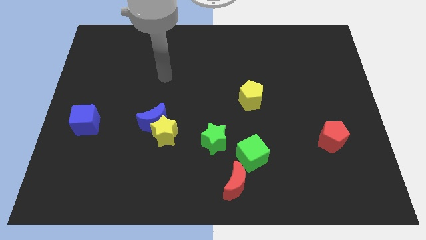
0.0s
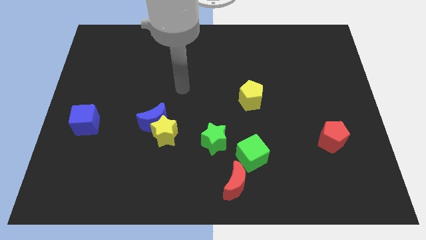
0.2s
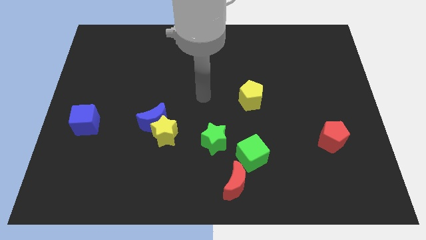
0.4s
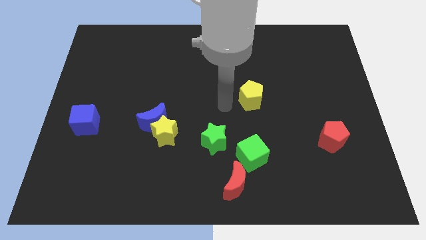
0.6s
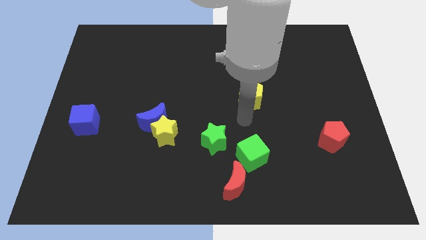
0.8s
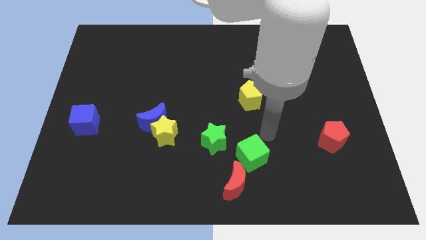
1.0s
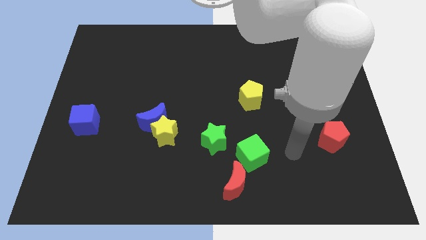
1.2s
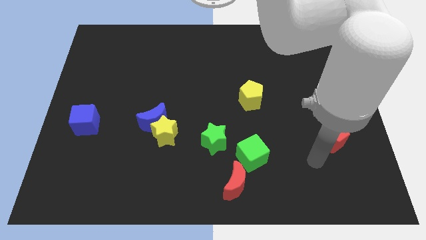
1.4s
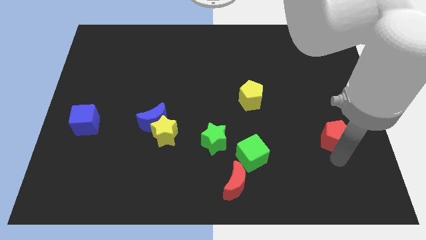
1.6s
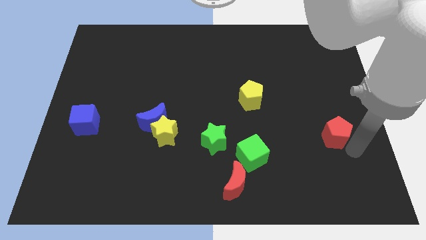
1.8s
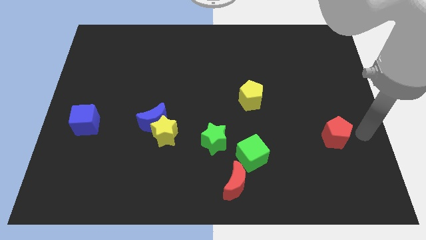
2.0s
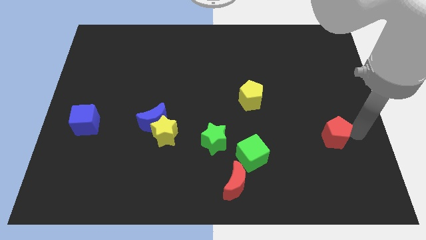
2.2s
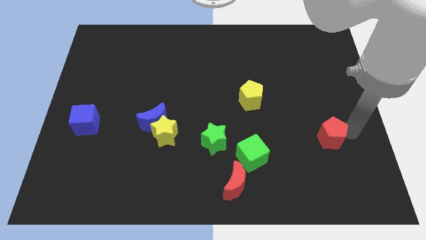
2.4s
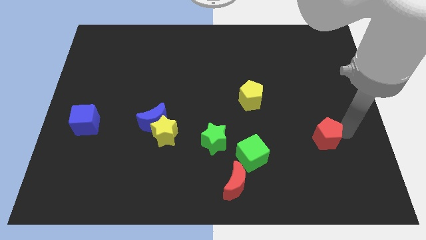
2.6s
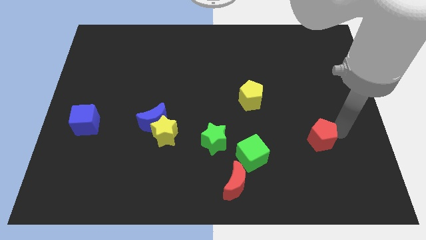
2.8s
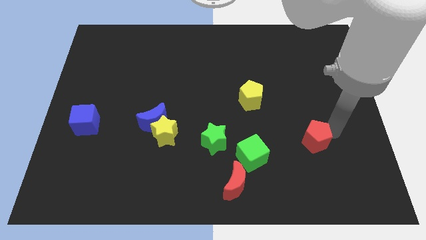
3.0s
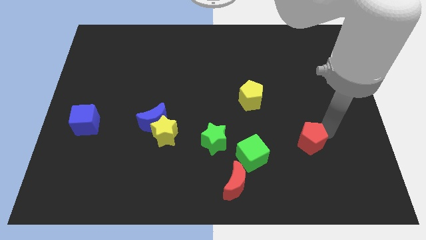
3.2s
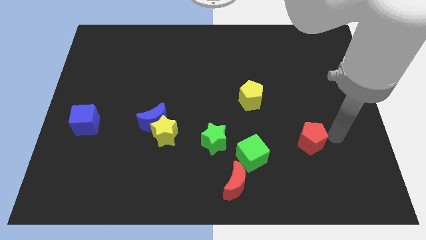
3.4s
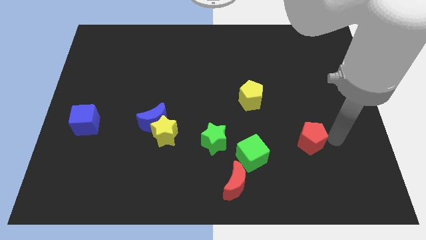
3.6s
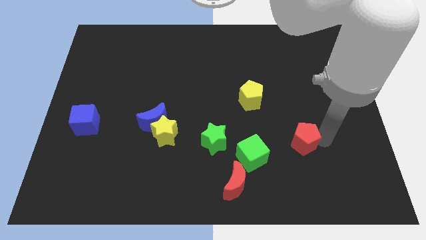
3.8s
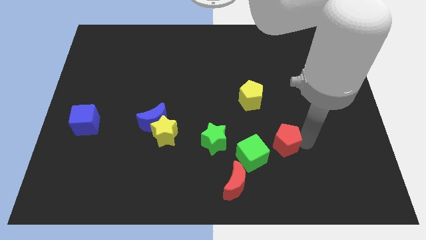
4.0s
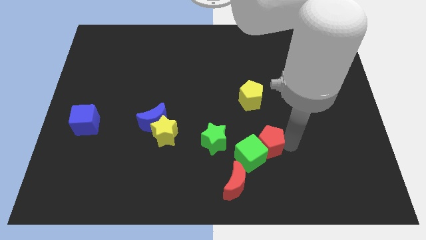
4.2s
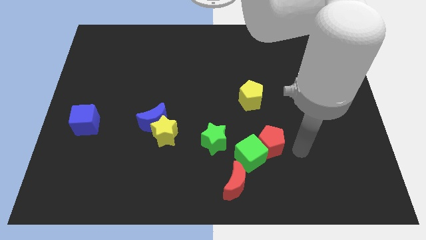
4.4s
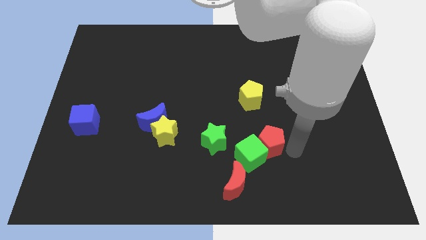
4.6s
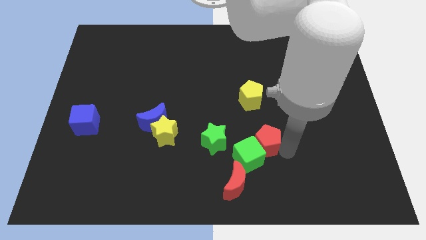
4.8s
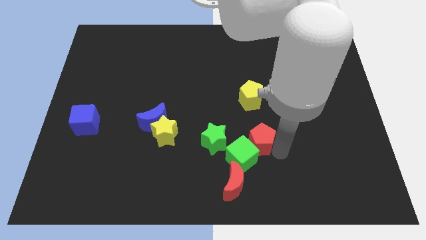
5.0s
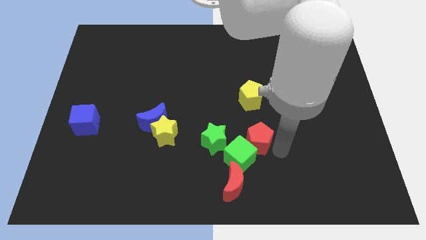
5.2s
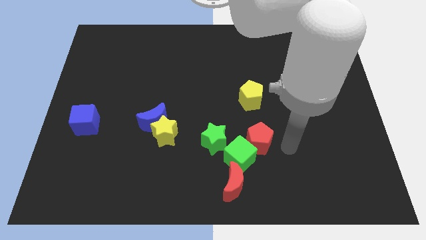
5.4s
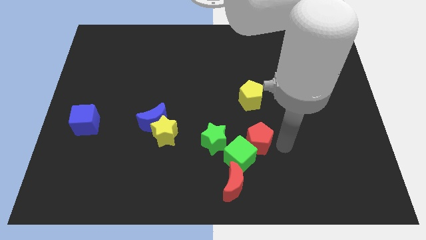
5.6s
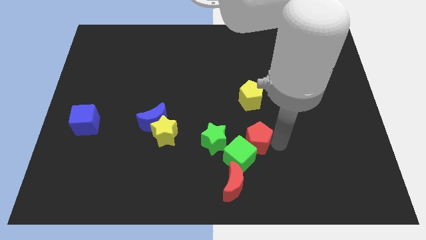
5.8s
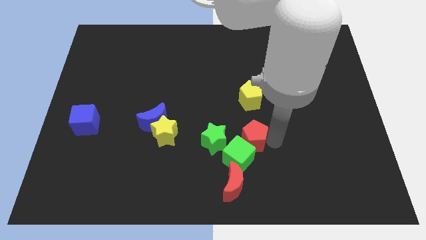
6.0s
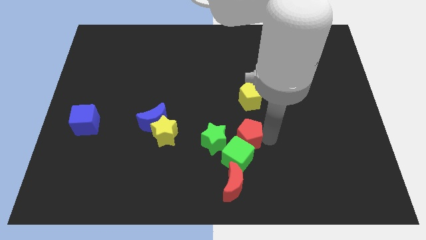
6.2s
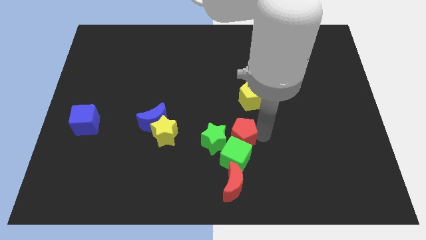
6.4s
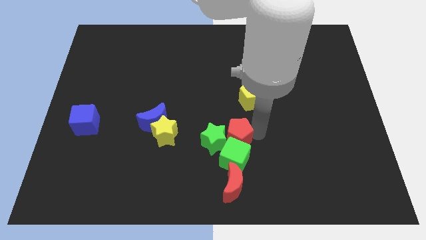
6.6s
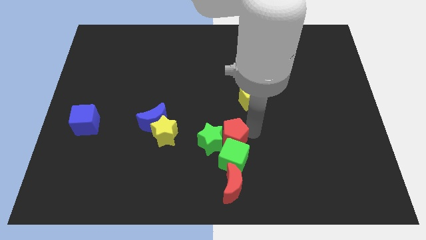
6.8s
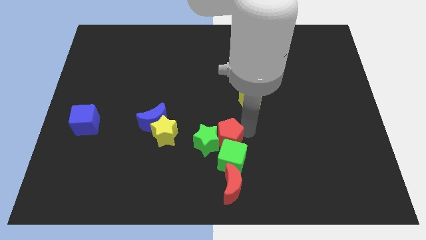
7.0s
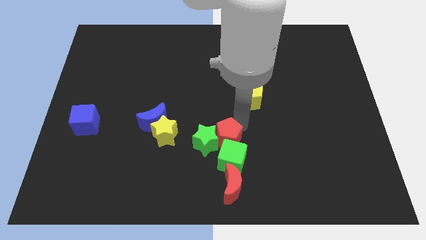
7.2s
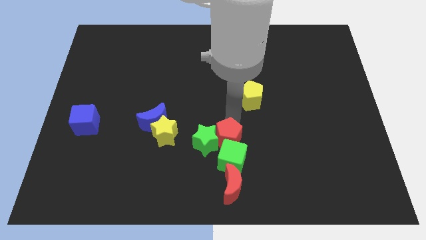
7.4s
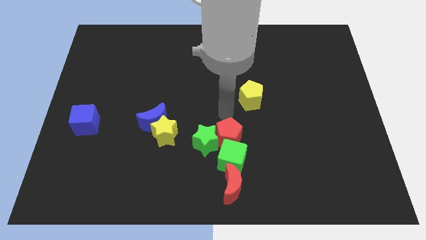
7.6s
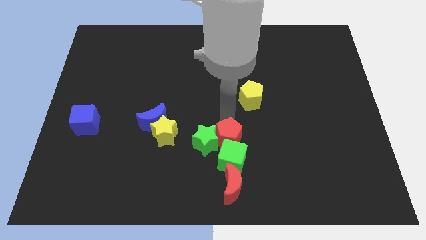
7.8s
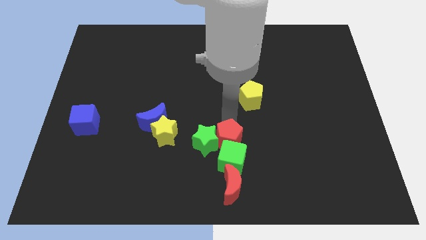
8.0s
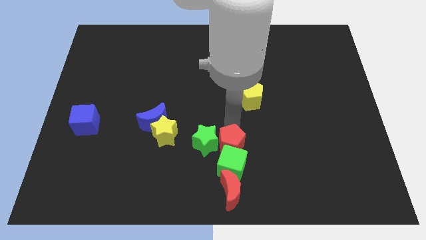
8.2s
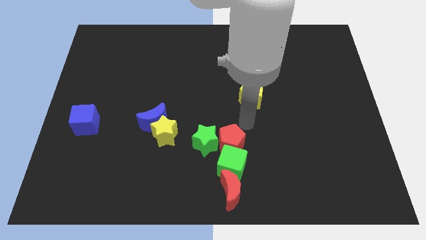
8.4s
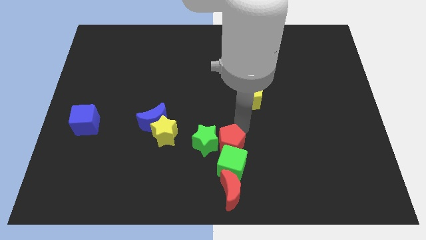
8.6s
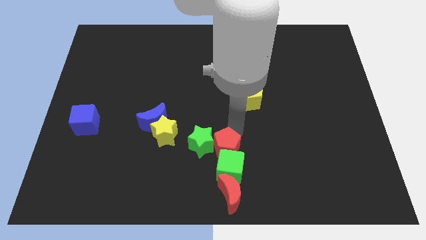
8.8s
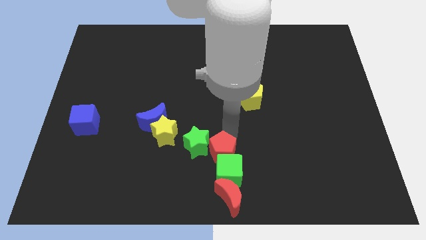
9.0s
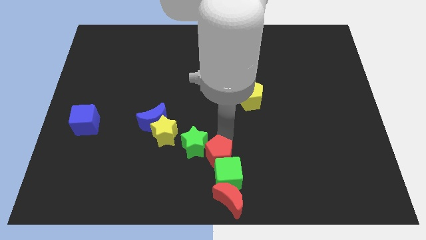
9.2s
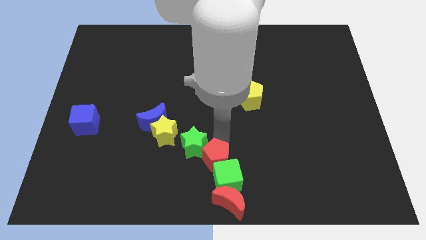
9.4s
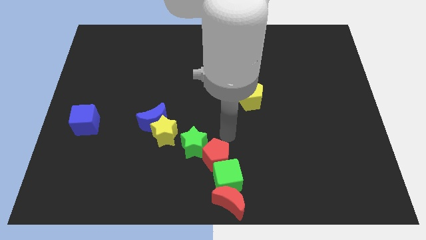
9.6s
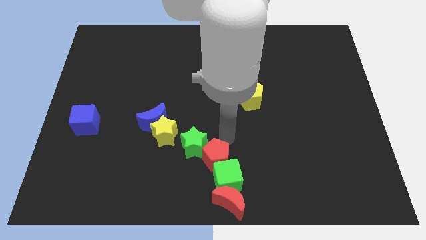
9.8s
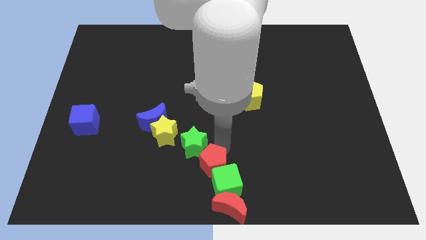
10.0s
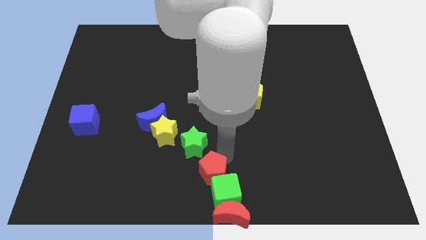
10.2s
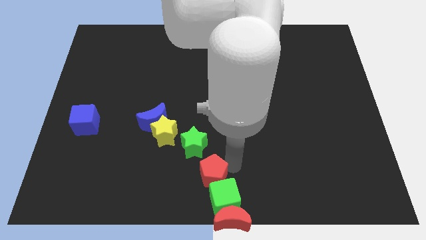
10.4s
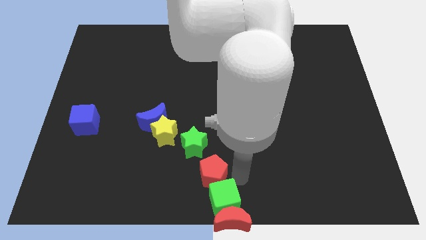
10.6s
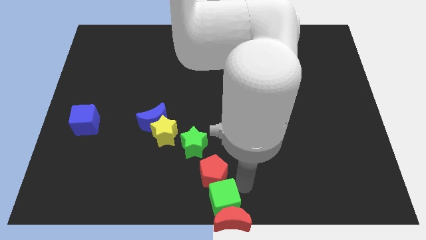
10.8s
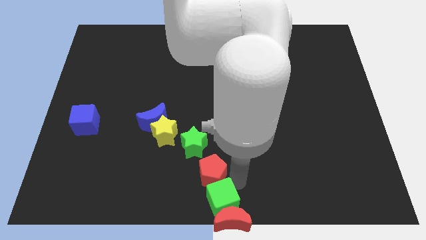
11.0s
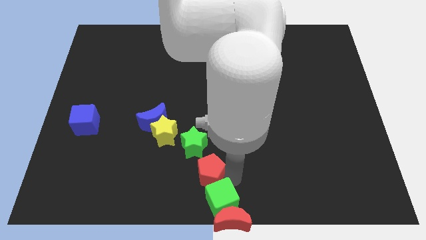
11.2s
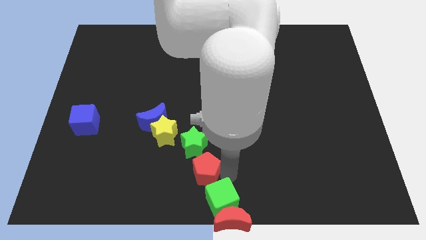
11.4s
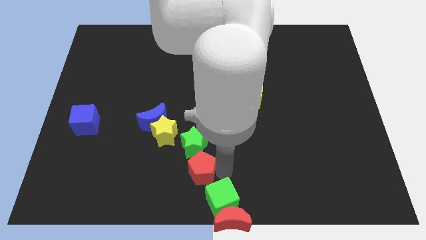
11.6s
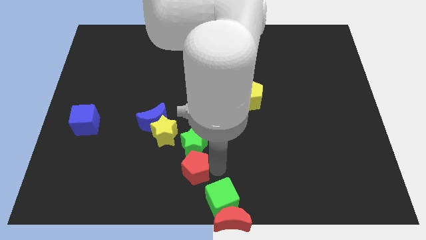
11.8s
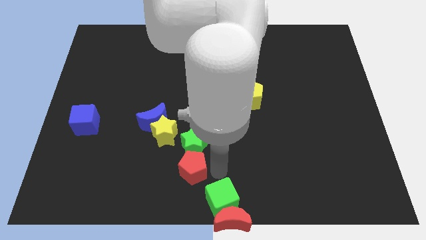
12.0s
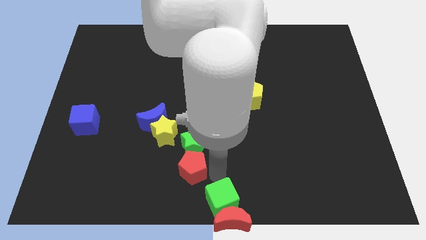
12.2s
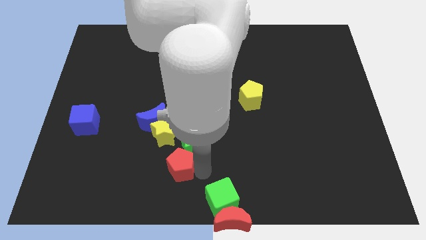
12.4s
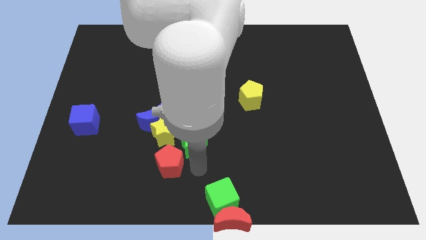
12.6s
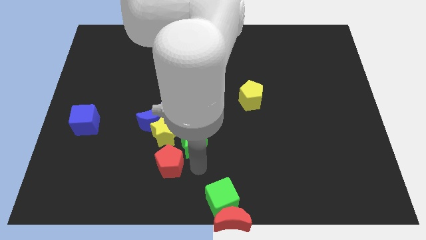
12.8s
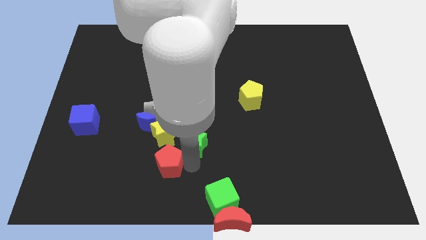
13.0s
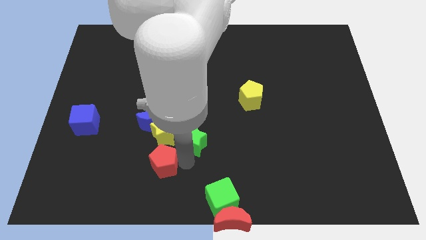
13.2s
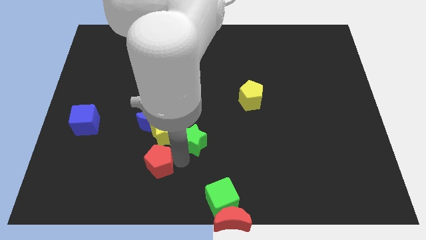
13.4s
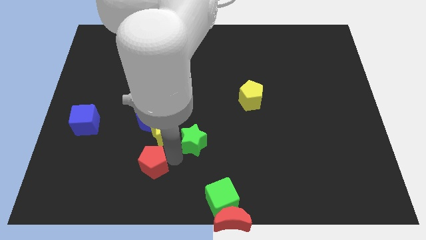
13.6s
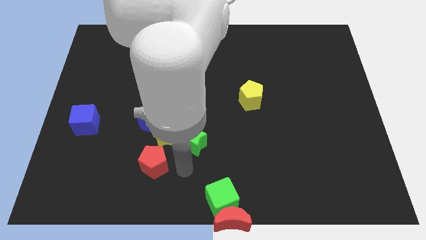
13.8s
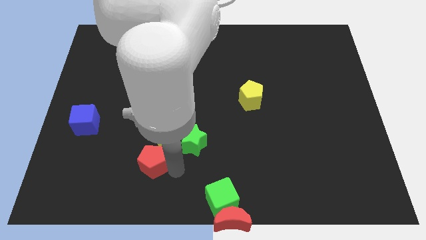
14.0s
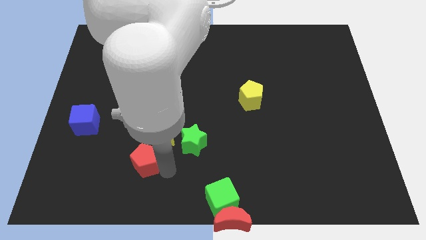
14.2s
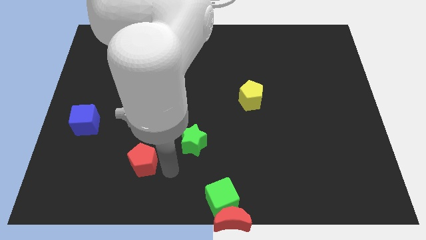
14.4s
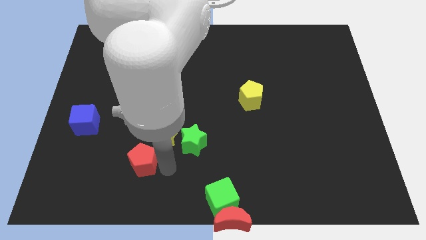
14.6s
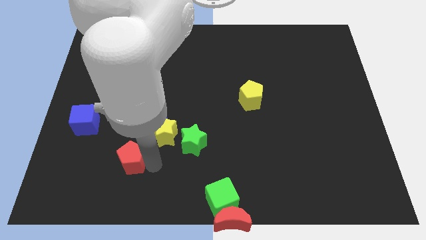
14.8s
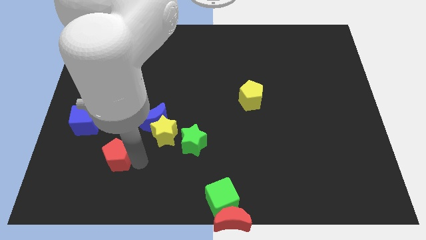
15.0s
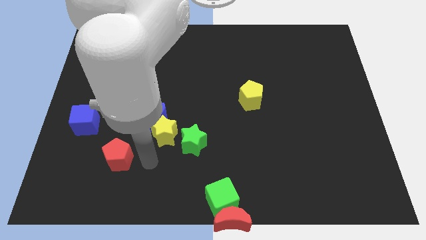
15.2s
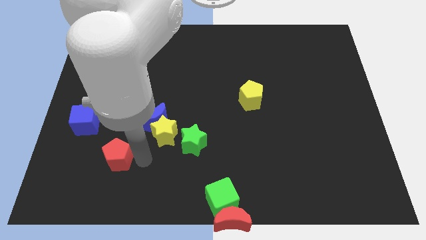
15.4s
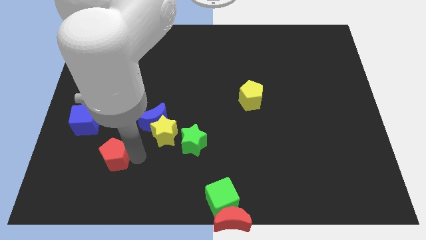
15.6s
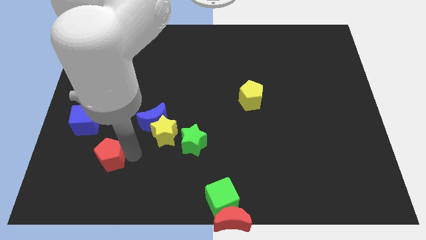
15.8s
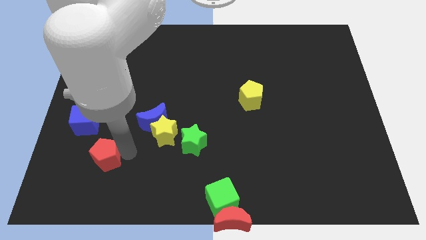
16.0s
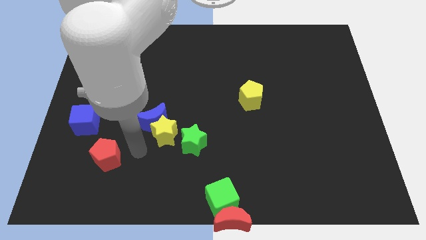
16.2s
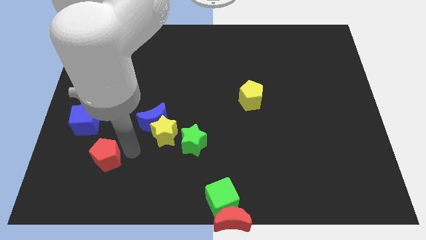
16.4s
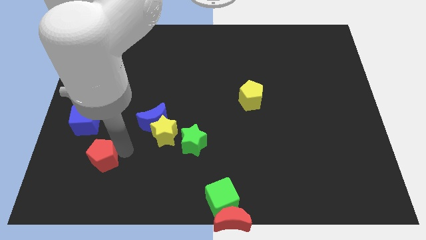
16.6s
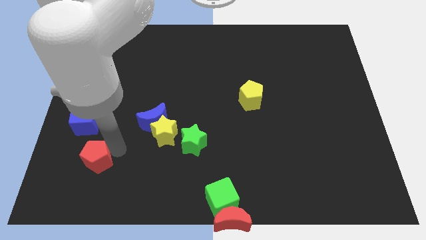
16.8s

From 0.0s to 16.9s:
move the red pentagon below the blue cube
